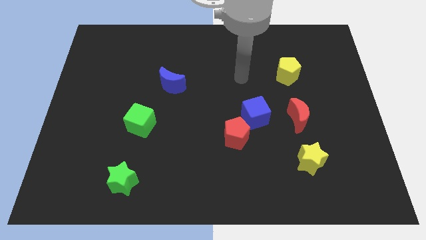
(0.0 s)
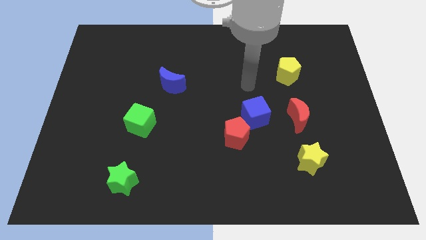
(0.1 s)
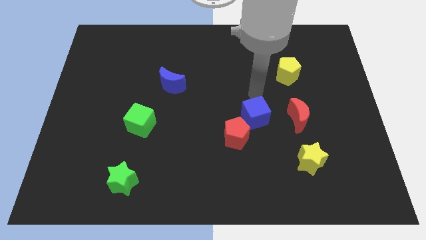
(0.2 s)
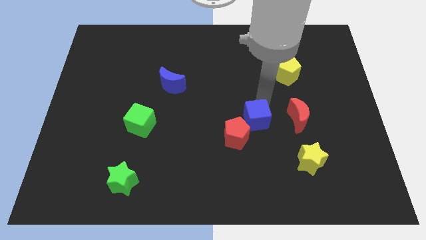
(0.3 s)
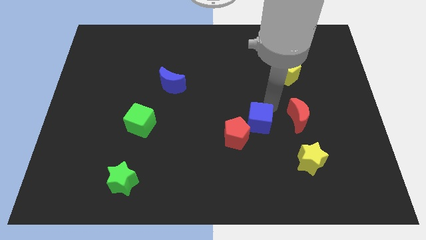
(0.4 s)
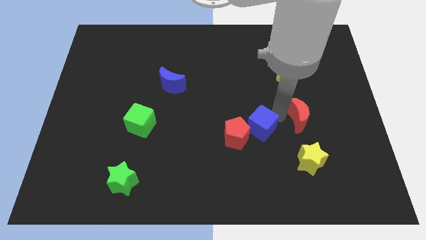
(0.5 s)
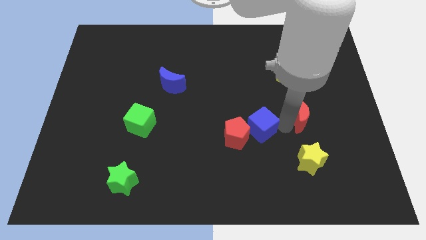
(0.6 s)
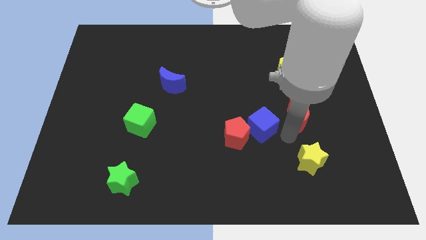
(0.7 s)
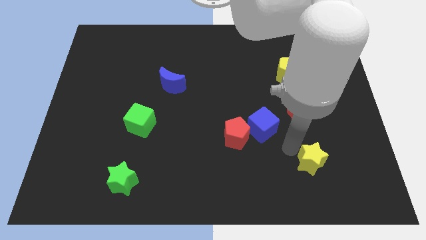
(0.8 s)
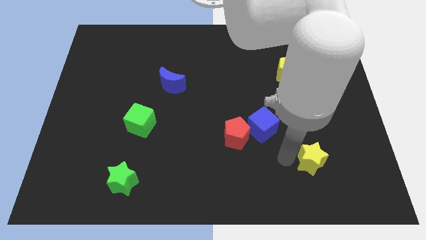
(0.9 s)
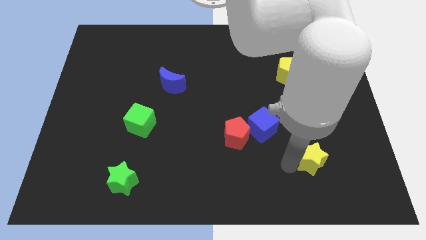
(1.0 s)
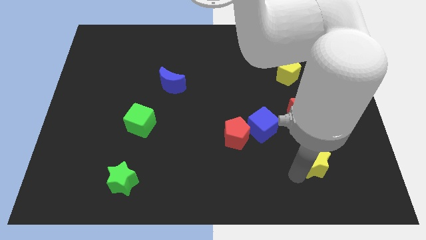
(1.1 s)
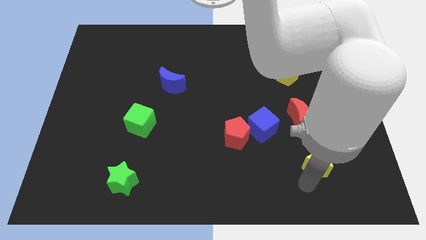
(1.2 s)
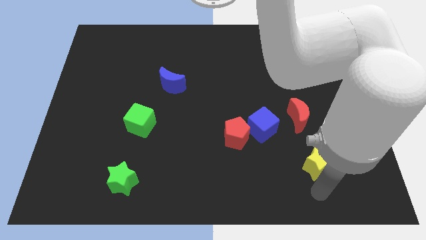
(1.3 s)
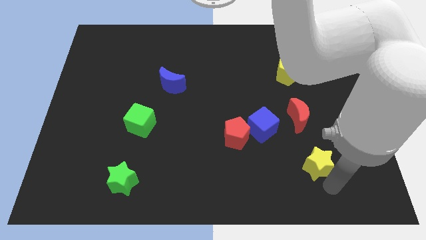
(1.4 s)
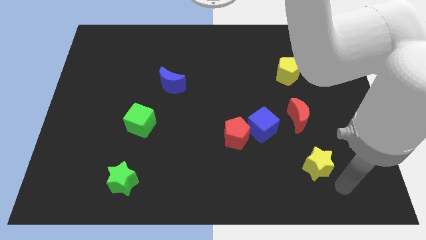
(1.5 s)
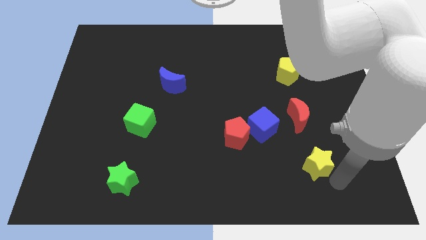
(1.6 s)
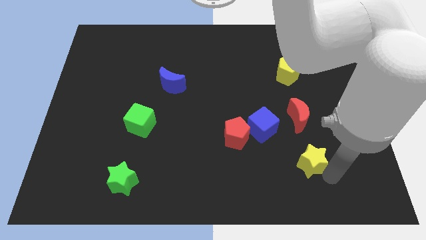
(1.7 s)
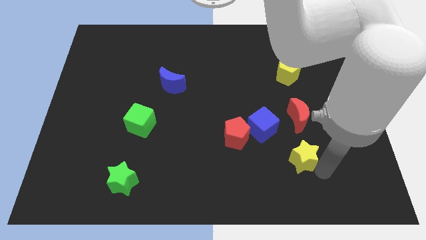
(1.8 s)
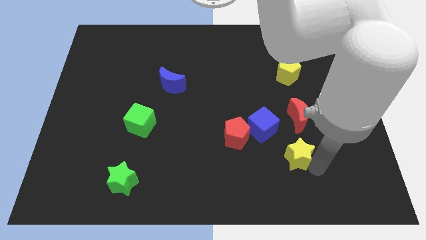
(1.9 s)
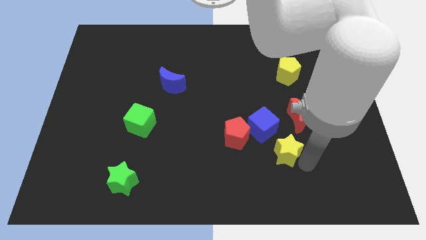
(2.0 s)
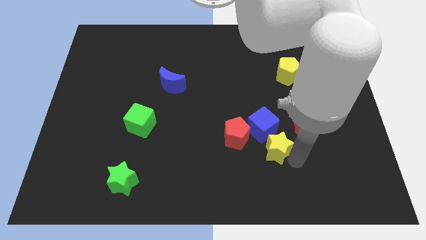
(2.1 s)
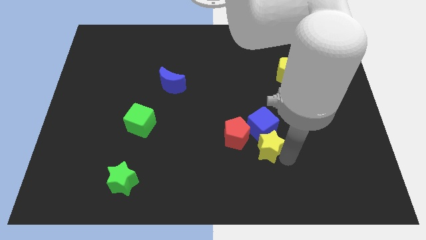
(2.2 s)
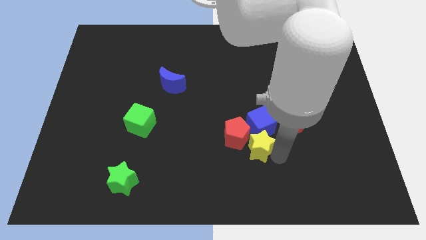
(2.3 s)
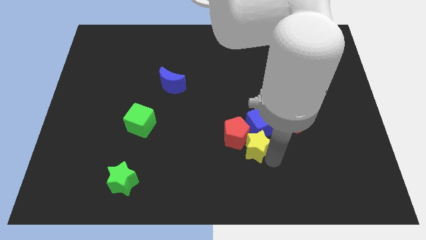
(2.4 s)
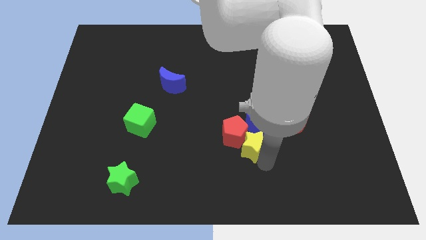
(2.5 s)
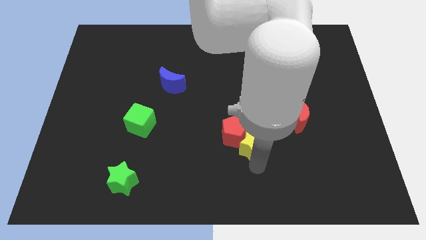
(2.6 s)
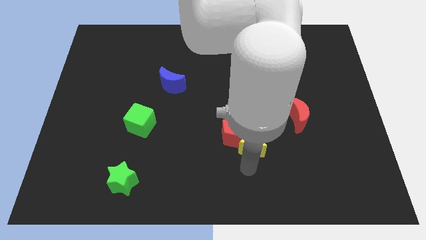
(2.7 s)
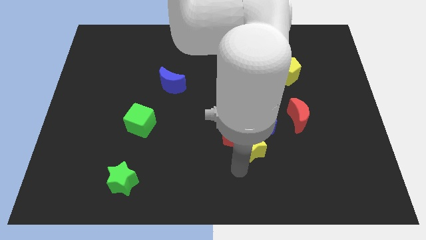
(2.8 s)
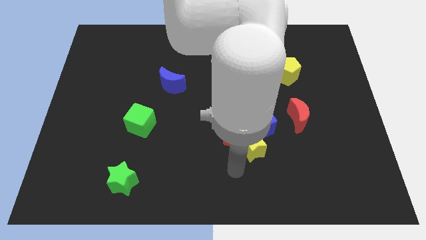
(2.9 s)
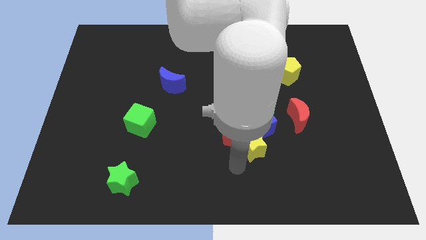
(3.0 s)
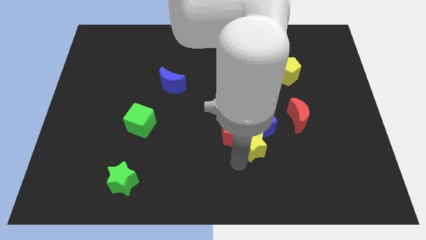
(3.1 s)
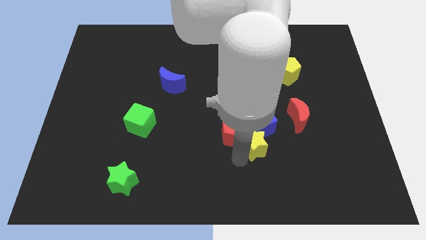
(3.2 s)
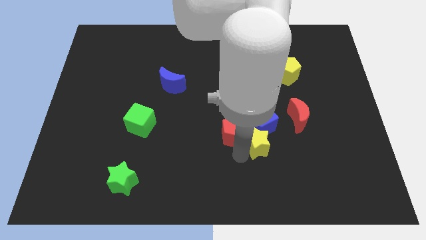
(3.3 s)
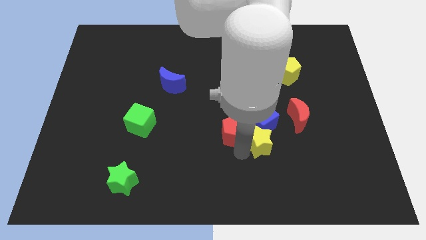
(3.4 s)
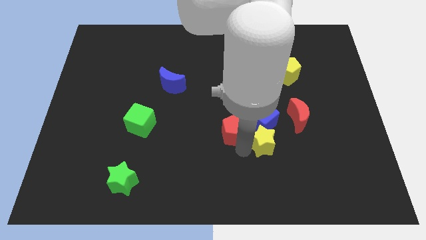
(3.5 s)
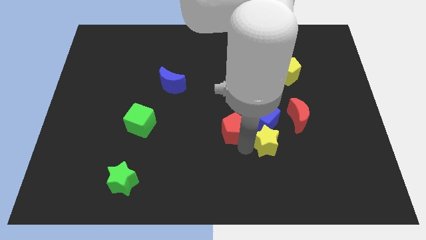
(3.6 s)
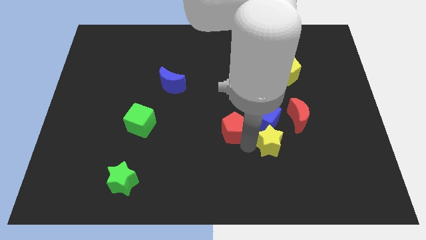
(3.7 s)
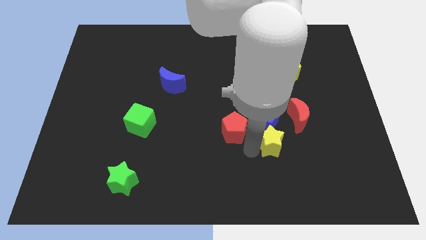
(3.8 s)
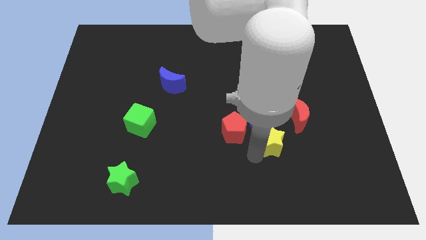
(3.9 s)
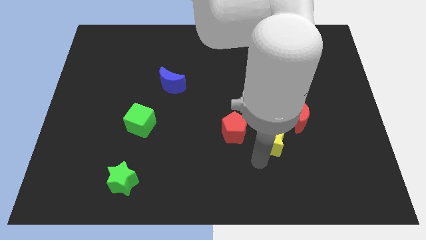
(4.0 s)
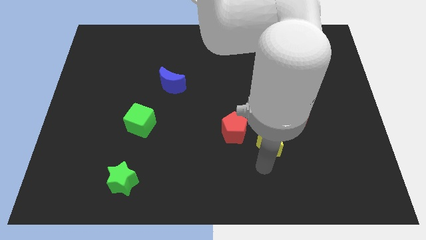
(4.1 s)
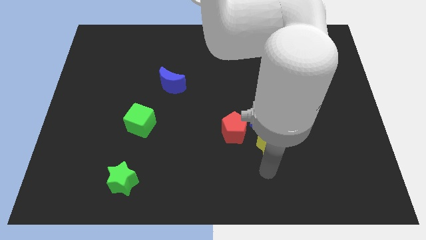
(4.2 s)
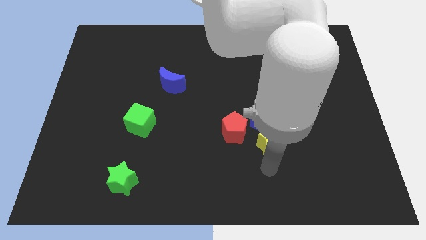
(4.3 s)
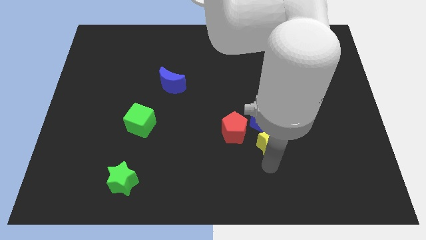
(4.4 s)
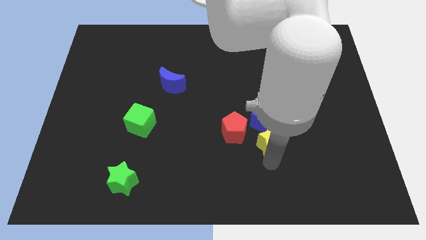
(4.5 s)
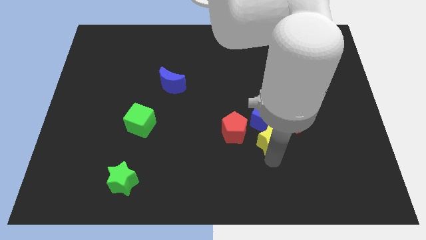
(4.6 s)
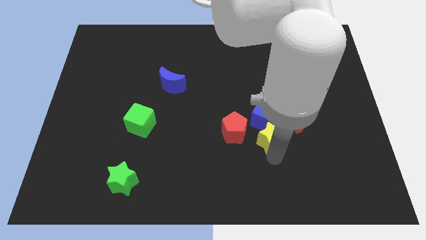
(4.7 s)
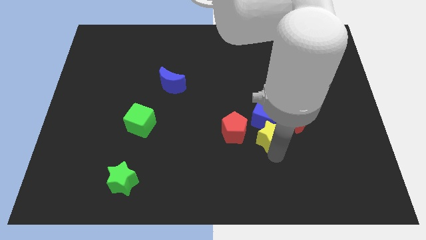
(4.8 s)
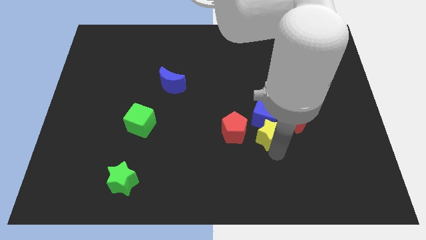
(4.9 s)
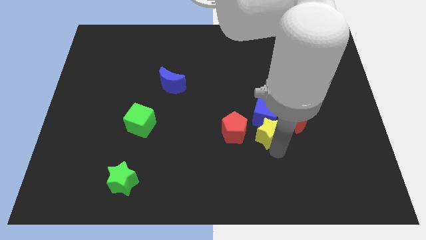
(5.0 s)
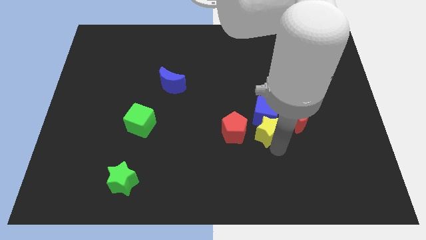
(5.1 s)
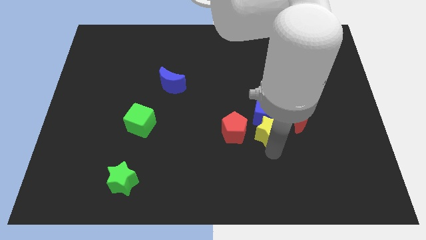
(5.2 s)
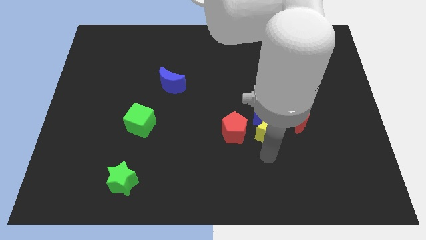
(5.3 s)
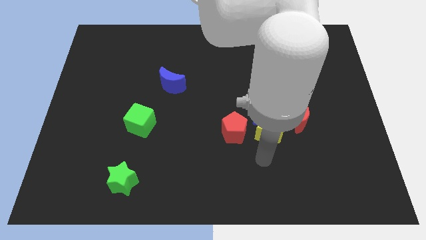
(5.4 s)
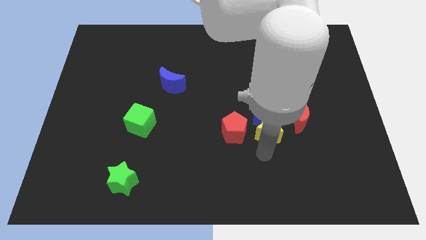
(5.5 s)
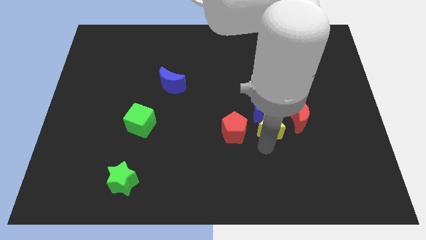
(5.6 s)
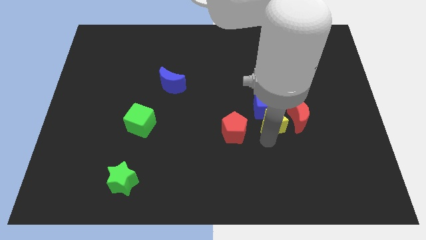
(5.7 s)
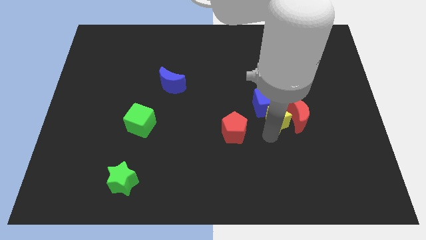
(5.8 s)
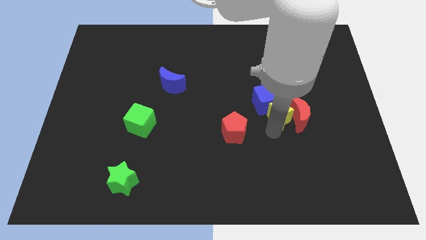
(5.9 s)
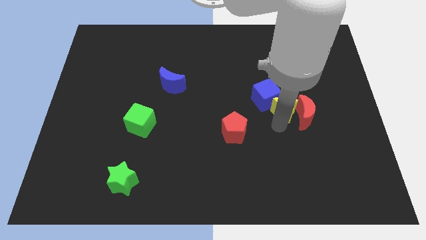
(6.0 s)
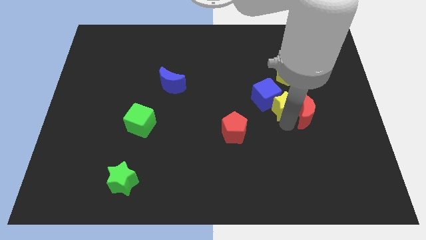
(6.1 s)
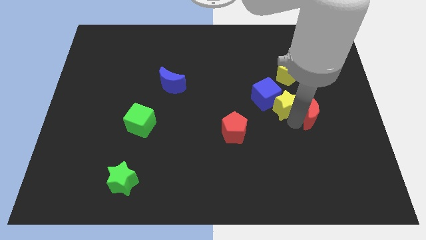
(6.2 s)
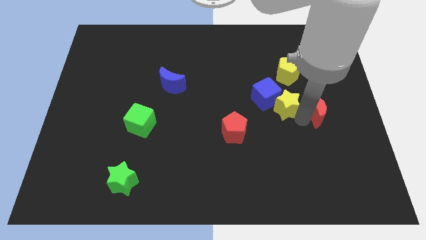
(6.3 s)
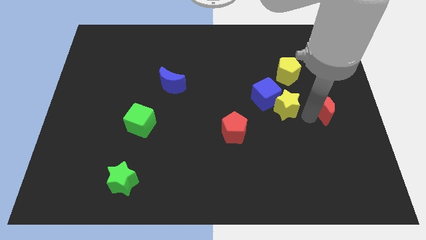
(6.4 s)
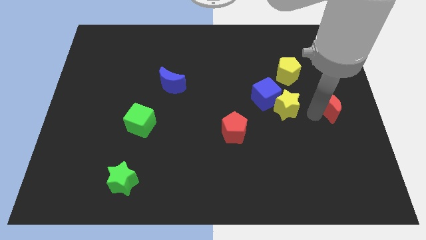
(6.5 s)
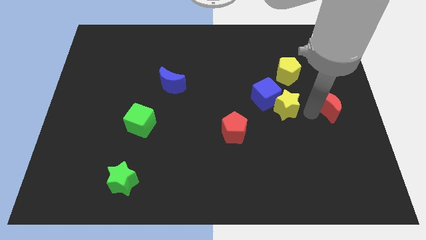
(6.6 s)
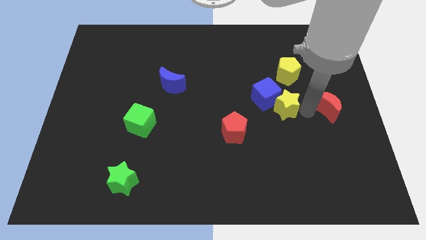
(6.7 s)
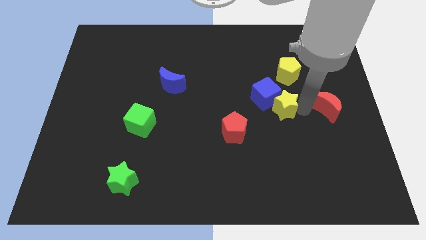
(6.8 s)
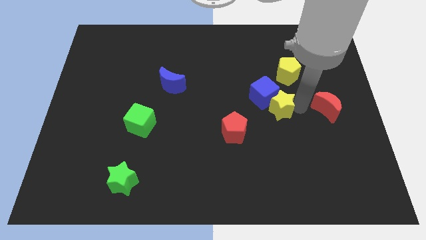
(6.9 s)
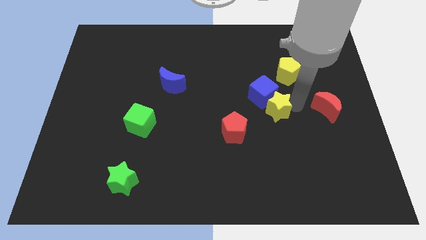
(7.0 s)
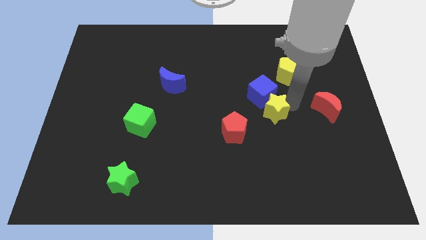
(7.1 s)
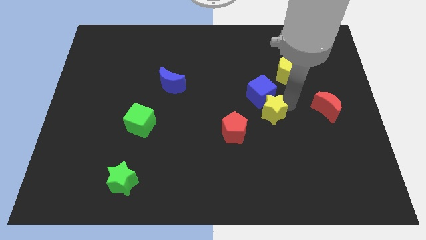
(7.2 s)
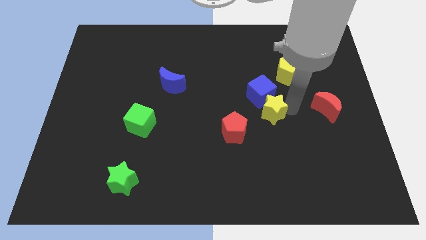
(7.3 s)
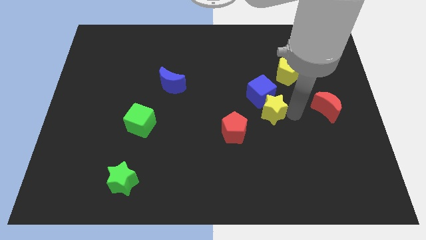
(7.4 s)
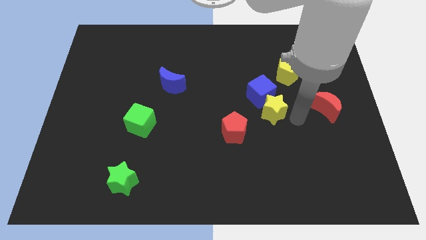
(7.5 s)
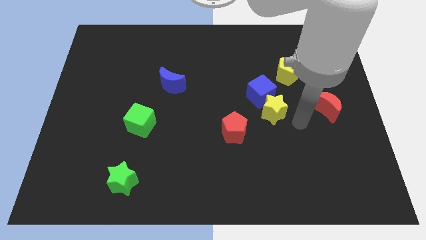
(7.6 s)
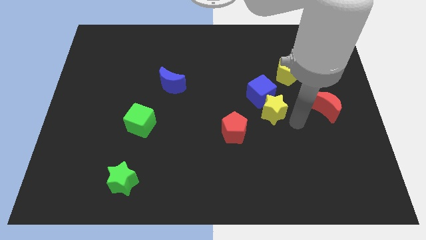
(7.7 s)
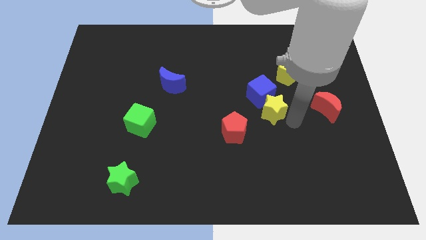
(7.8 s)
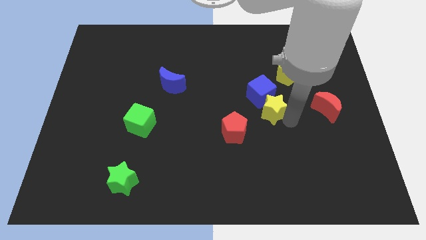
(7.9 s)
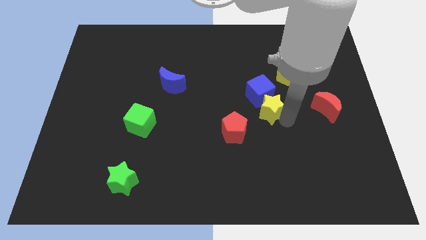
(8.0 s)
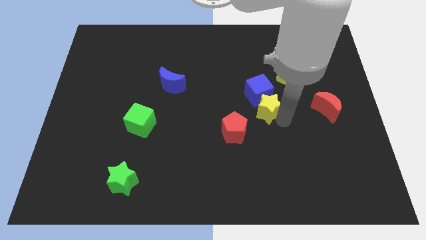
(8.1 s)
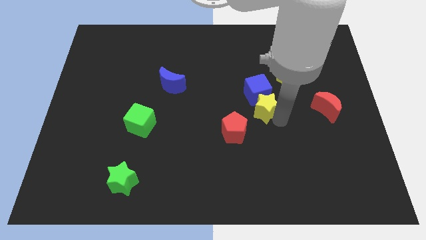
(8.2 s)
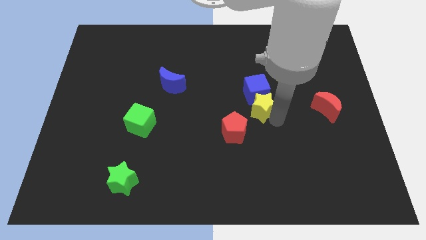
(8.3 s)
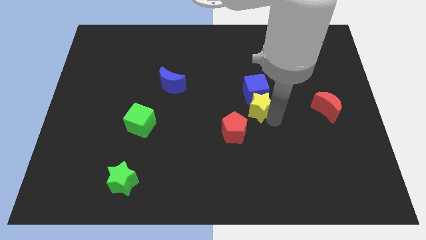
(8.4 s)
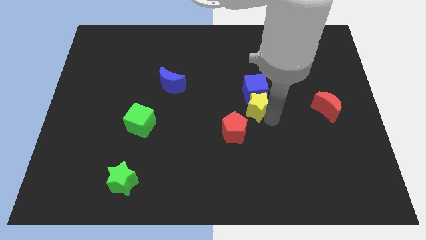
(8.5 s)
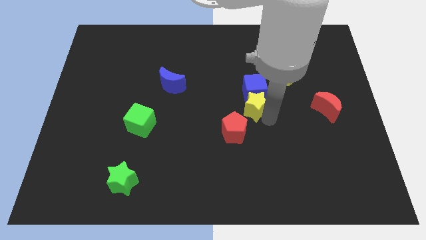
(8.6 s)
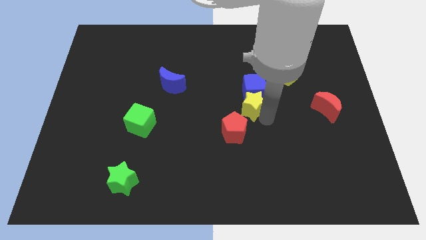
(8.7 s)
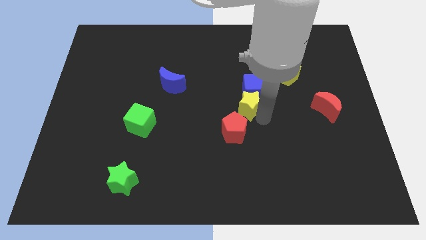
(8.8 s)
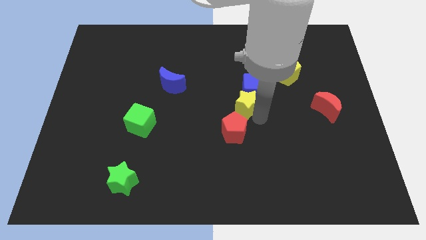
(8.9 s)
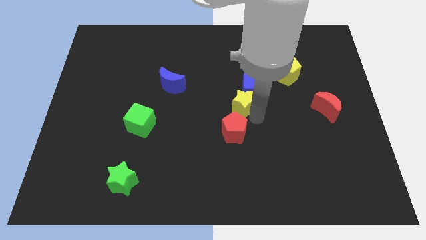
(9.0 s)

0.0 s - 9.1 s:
slide the yellow star up and then to the left
